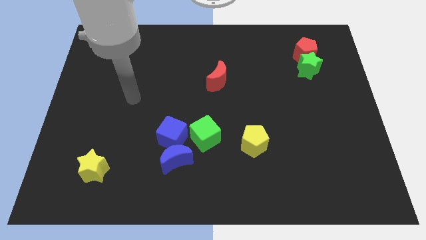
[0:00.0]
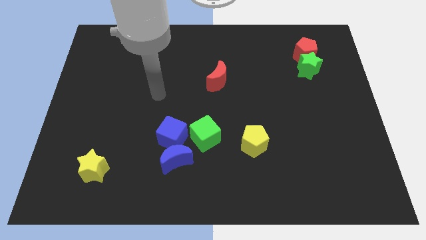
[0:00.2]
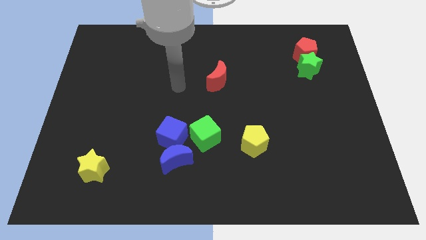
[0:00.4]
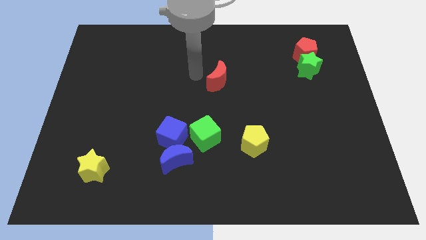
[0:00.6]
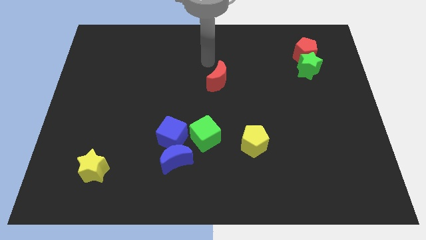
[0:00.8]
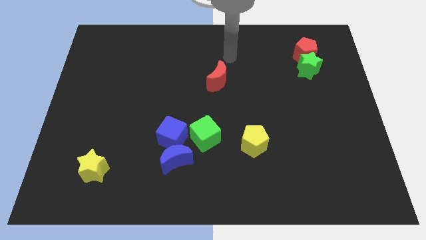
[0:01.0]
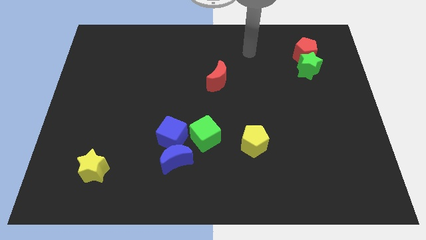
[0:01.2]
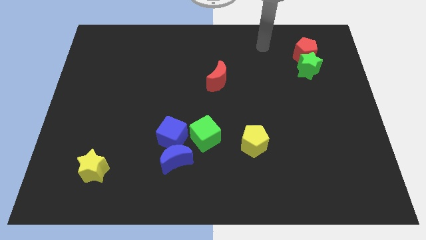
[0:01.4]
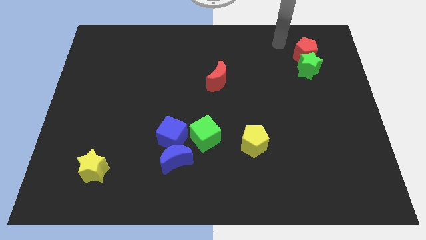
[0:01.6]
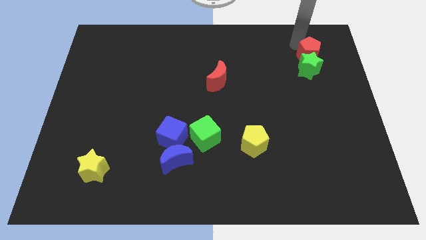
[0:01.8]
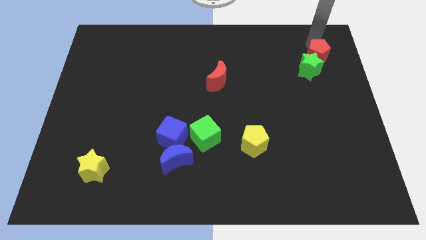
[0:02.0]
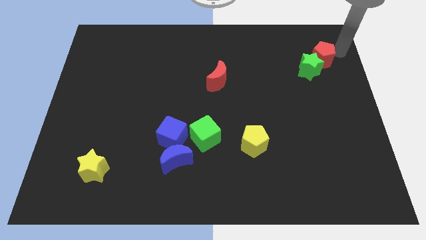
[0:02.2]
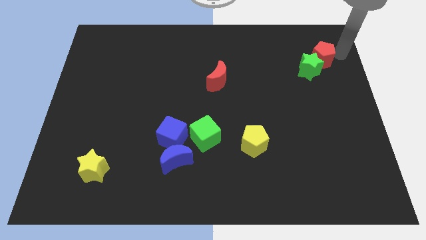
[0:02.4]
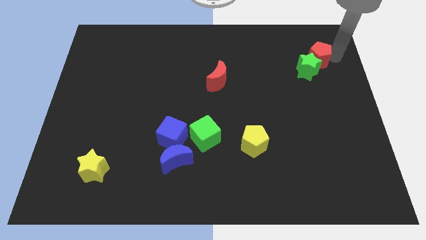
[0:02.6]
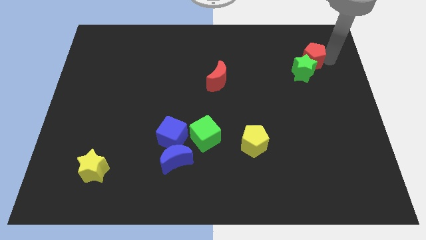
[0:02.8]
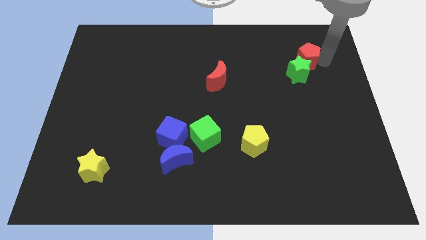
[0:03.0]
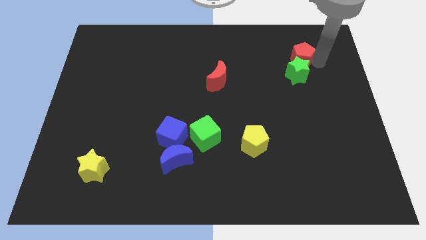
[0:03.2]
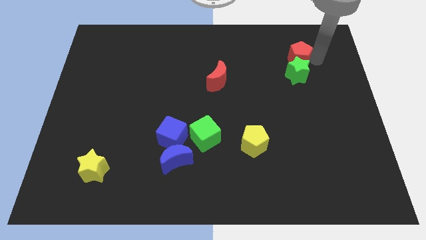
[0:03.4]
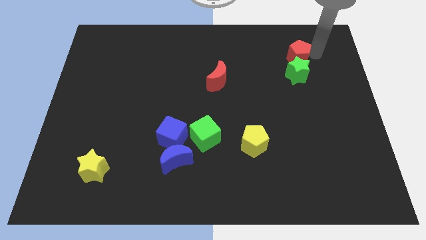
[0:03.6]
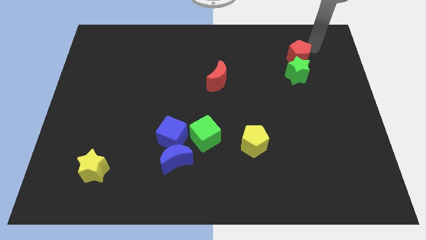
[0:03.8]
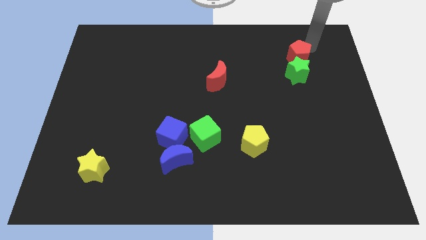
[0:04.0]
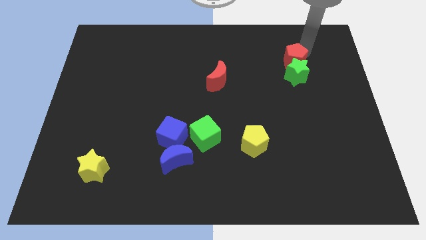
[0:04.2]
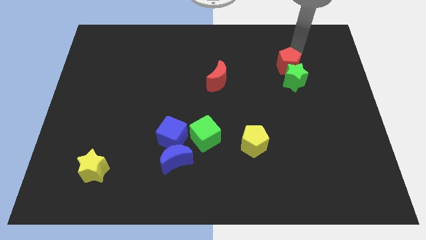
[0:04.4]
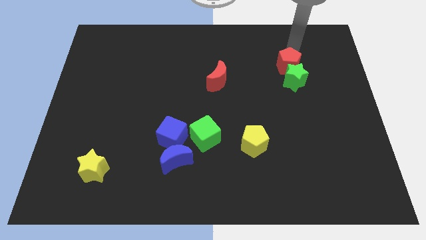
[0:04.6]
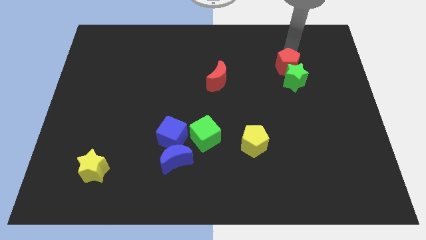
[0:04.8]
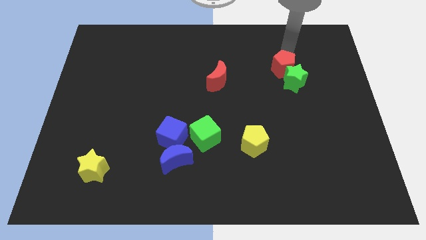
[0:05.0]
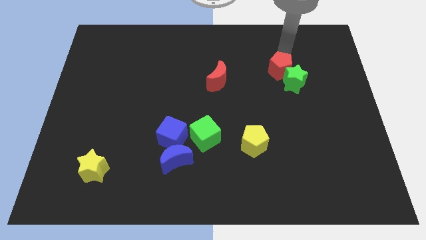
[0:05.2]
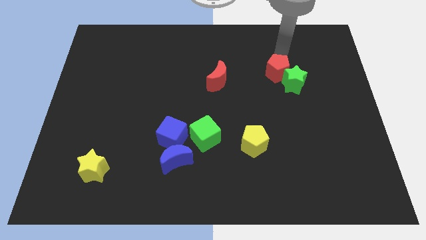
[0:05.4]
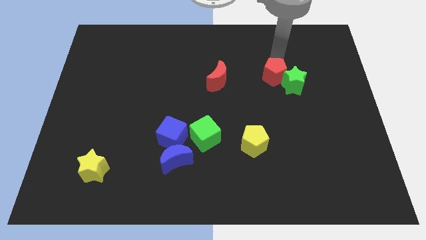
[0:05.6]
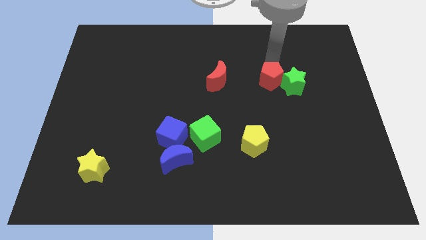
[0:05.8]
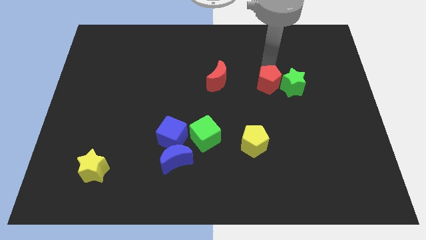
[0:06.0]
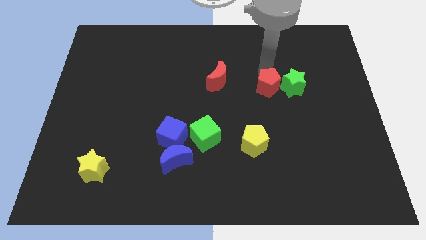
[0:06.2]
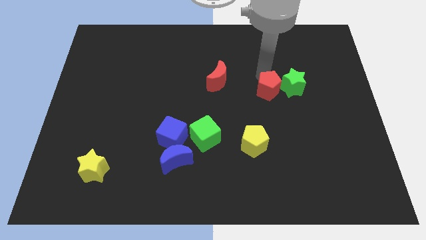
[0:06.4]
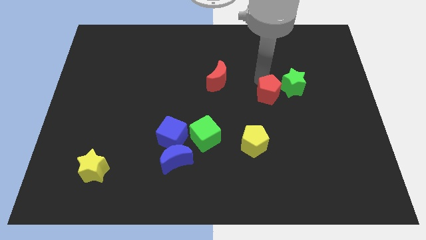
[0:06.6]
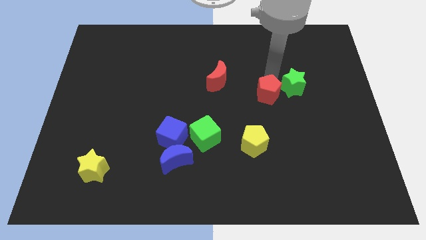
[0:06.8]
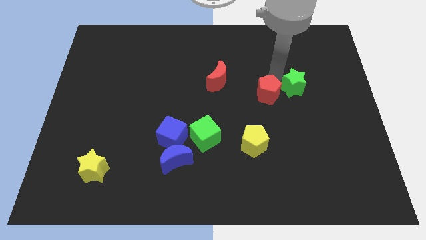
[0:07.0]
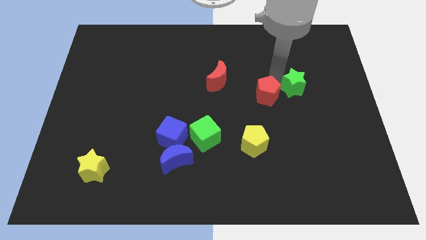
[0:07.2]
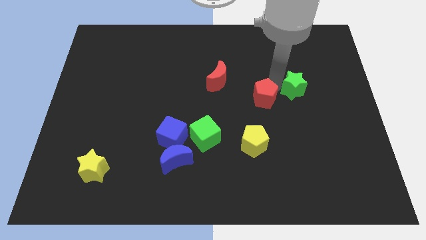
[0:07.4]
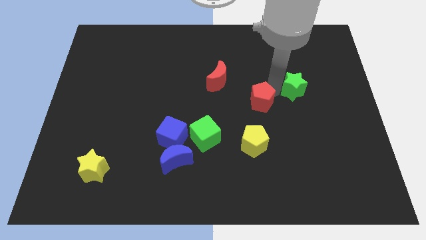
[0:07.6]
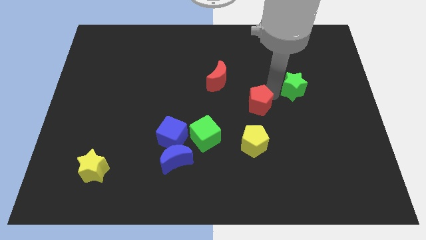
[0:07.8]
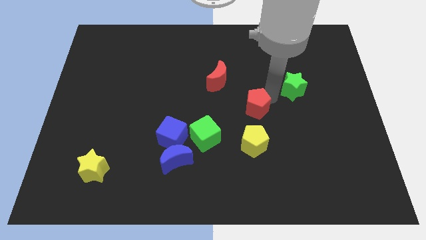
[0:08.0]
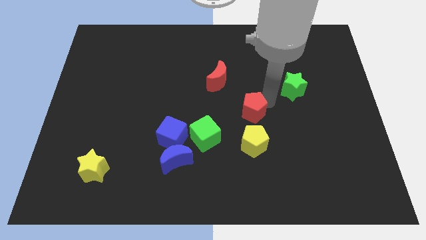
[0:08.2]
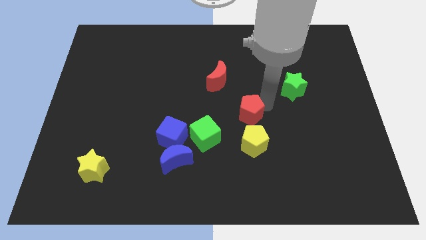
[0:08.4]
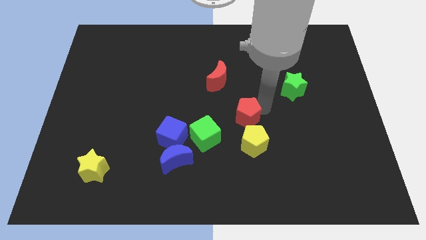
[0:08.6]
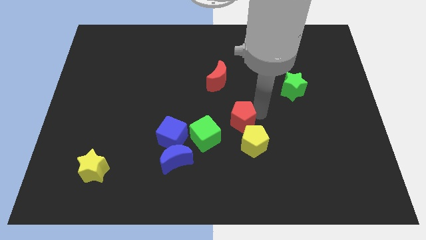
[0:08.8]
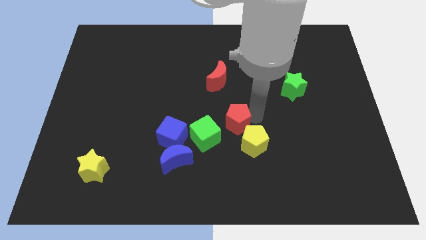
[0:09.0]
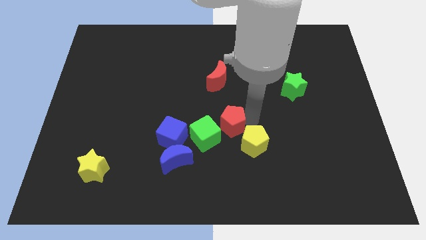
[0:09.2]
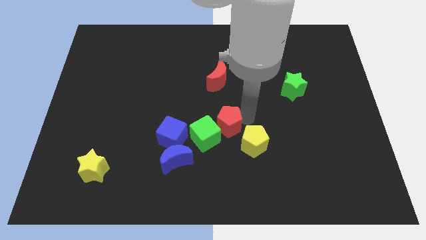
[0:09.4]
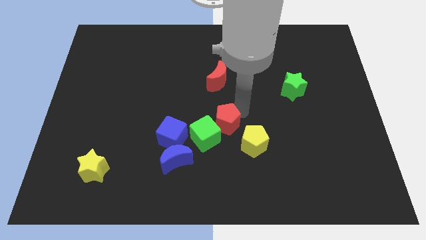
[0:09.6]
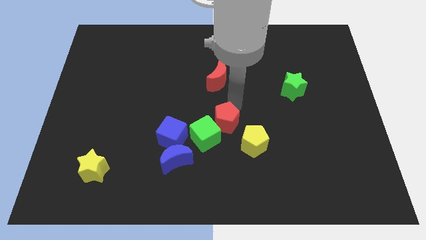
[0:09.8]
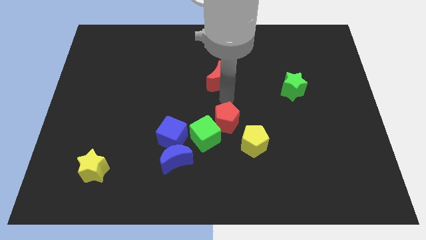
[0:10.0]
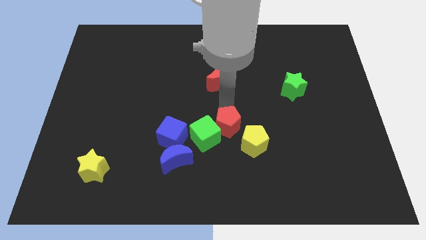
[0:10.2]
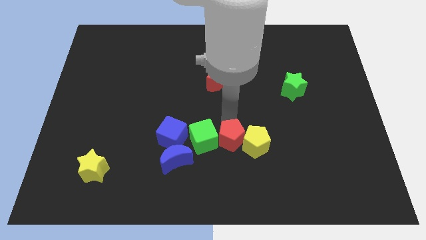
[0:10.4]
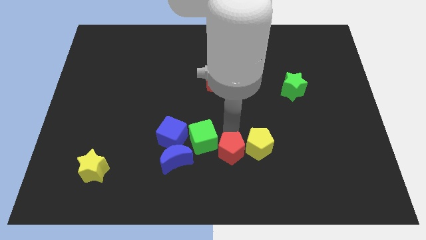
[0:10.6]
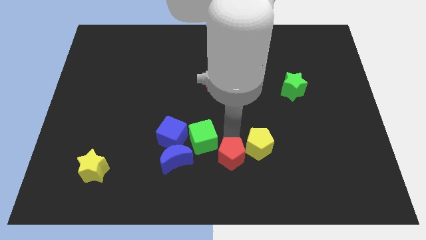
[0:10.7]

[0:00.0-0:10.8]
push the red pentagon to the bottom side

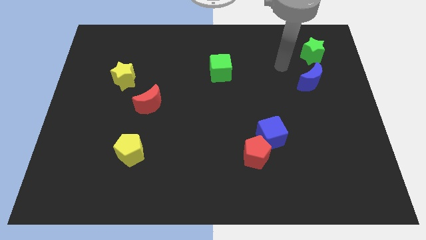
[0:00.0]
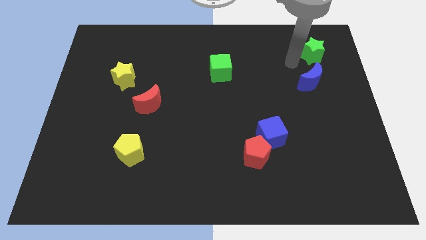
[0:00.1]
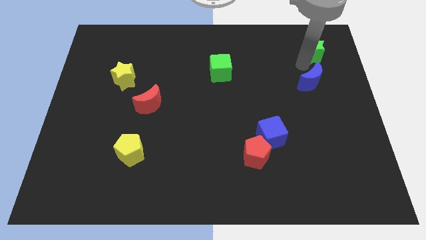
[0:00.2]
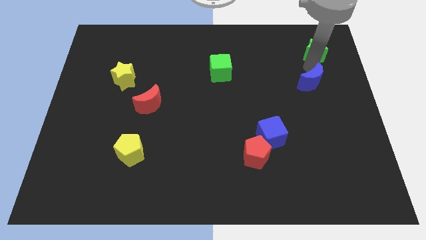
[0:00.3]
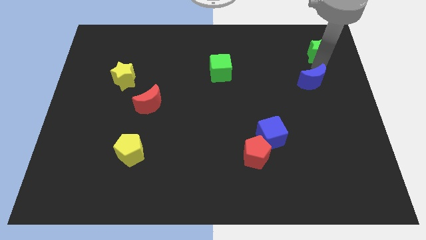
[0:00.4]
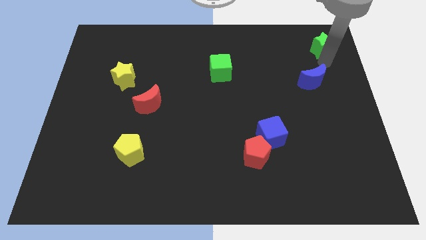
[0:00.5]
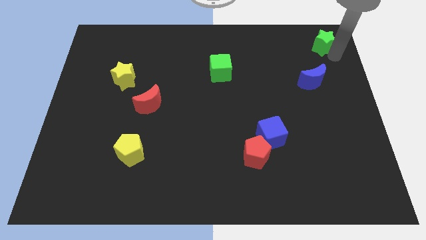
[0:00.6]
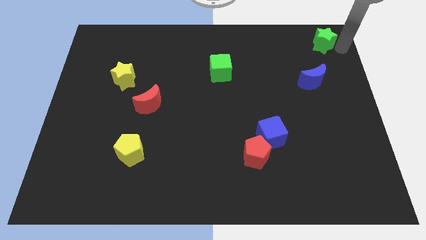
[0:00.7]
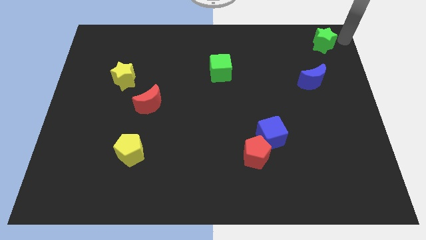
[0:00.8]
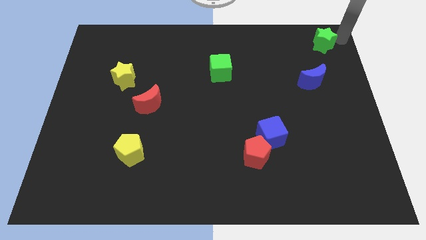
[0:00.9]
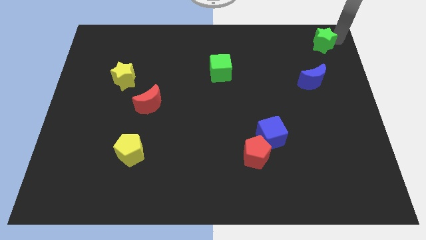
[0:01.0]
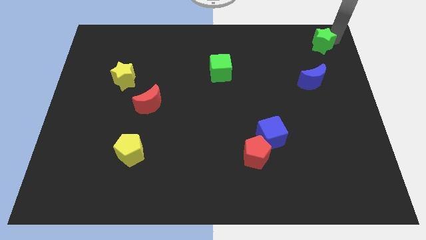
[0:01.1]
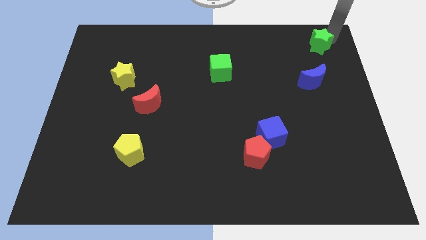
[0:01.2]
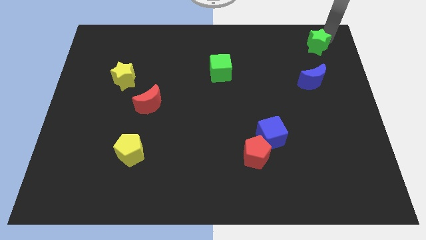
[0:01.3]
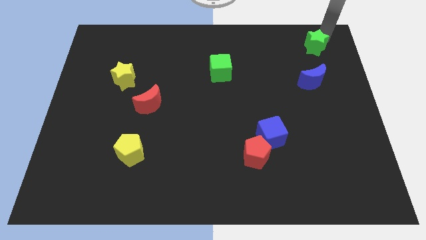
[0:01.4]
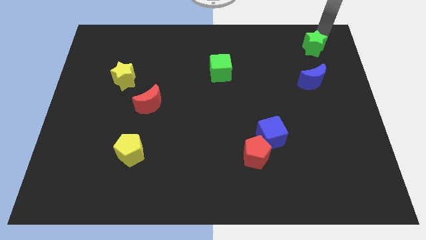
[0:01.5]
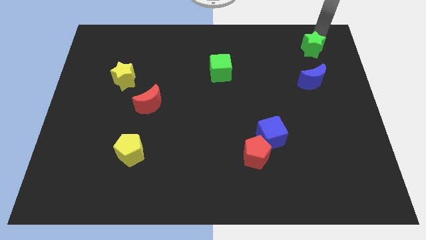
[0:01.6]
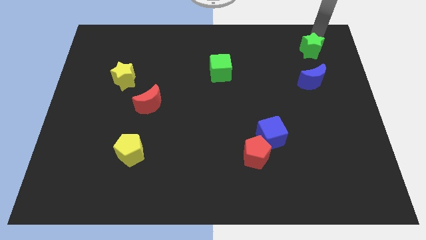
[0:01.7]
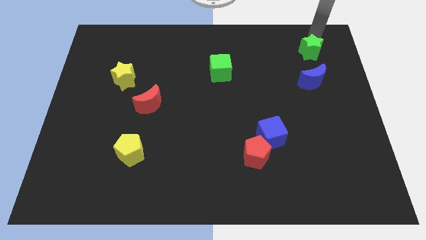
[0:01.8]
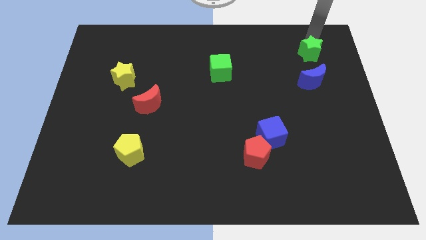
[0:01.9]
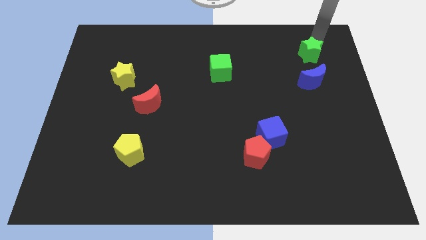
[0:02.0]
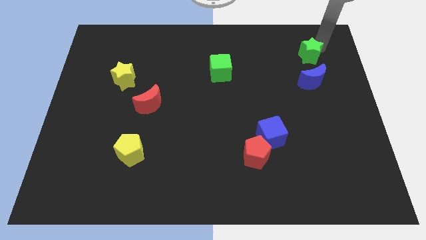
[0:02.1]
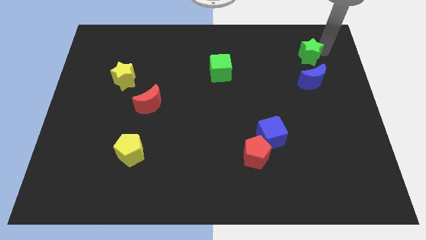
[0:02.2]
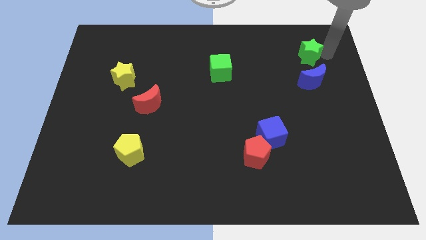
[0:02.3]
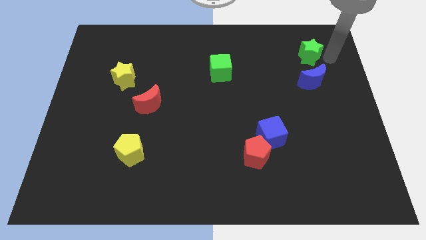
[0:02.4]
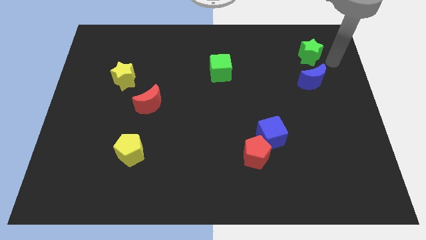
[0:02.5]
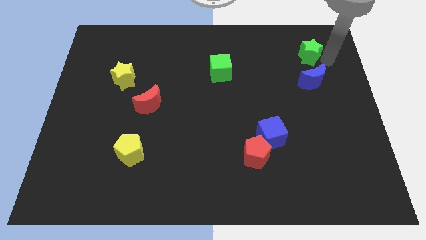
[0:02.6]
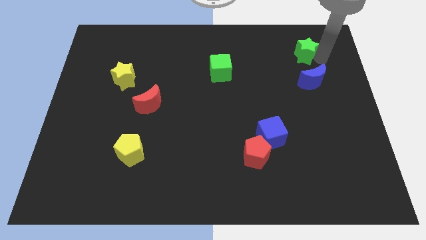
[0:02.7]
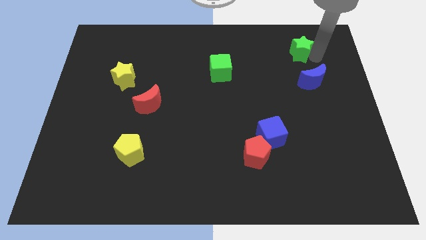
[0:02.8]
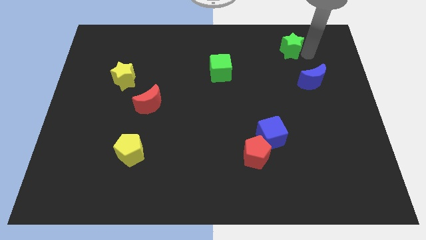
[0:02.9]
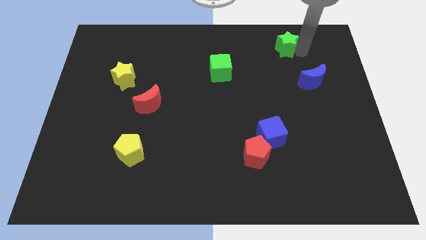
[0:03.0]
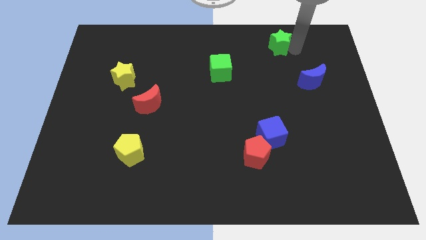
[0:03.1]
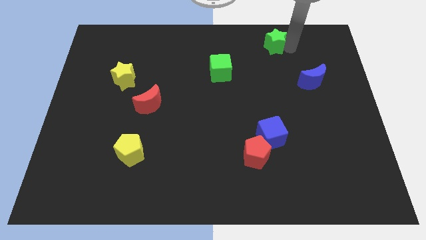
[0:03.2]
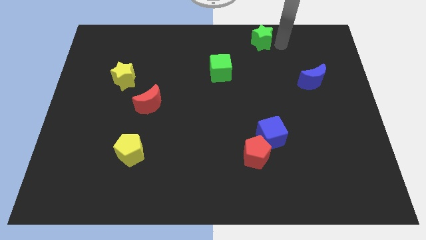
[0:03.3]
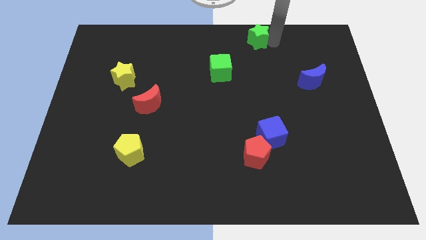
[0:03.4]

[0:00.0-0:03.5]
move the green star to the towards your base
